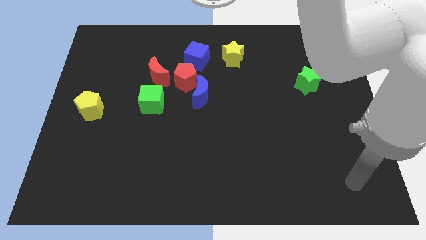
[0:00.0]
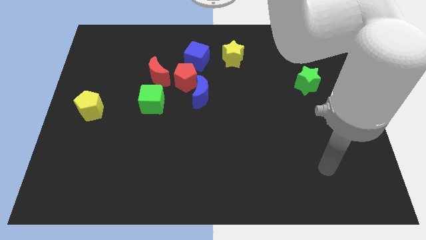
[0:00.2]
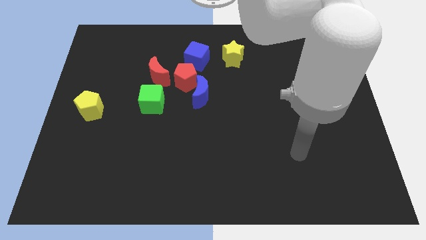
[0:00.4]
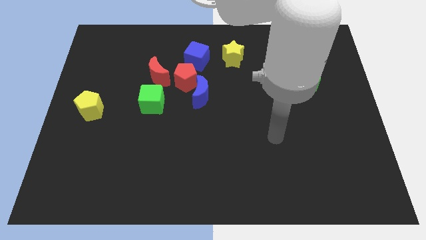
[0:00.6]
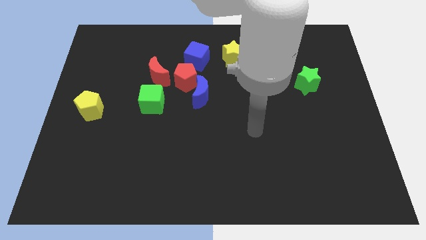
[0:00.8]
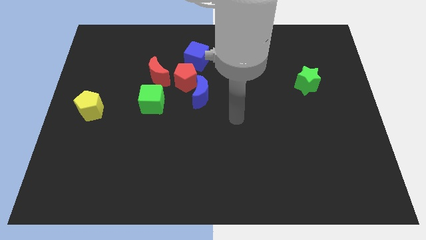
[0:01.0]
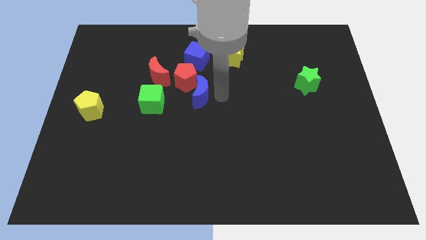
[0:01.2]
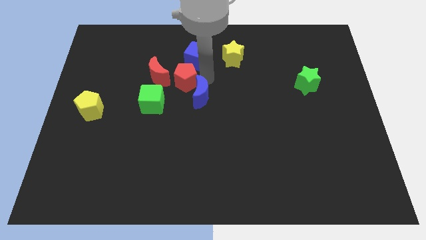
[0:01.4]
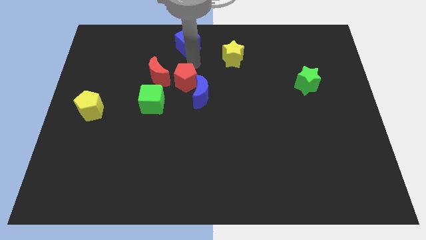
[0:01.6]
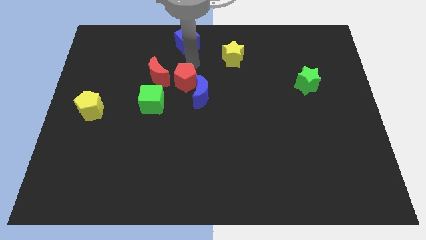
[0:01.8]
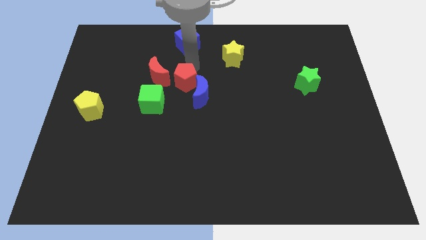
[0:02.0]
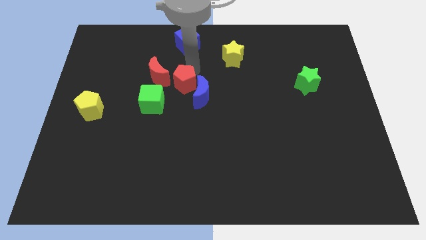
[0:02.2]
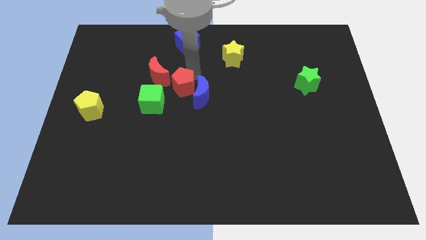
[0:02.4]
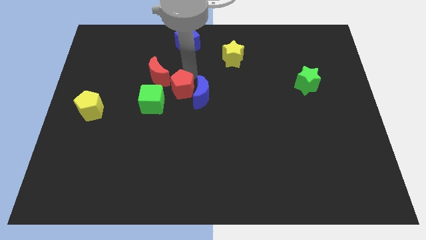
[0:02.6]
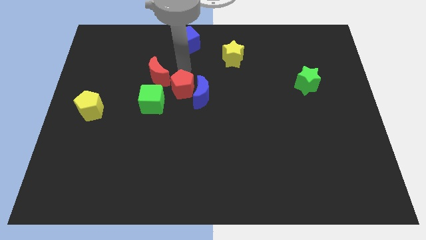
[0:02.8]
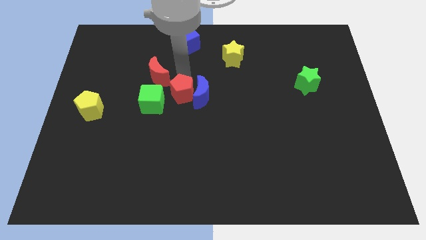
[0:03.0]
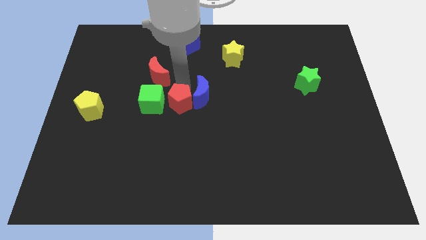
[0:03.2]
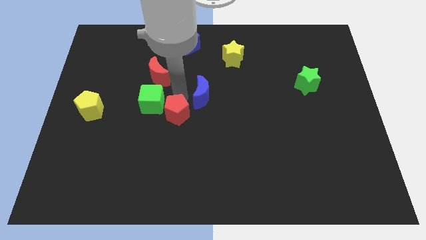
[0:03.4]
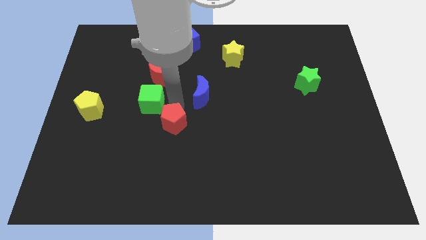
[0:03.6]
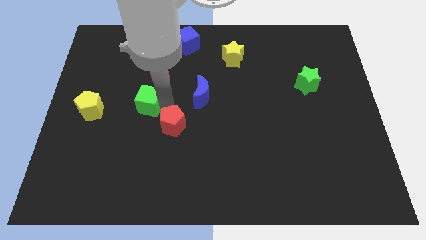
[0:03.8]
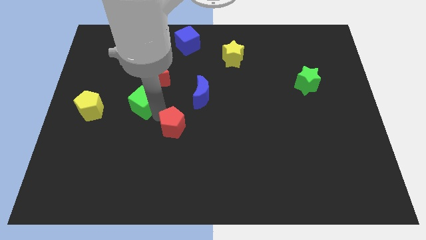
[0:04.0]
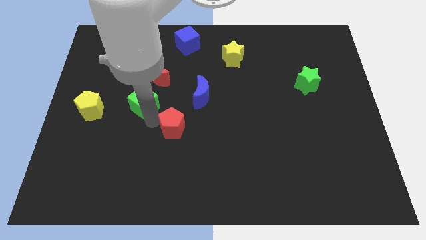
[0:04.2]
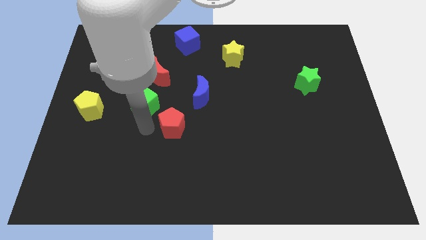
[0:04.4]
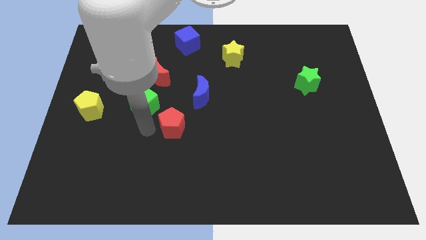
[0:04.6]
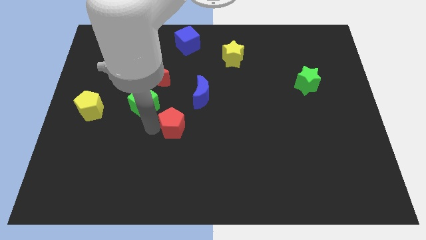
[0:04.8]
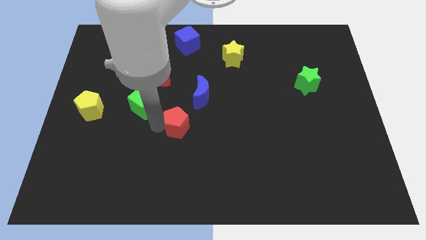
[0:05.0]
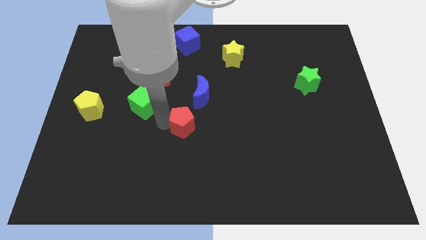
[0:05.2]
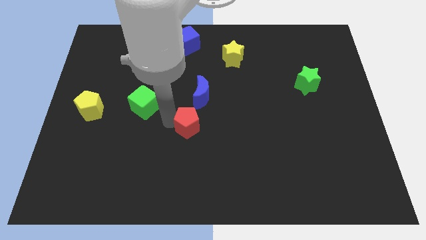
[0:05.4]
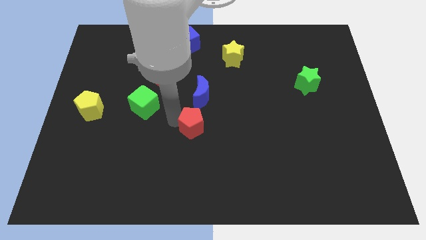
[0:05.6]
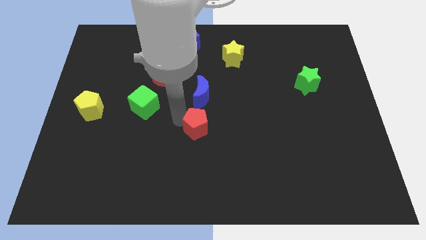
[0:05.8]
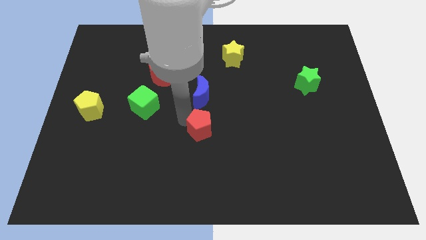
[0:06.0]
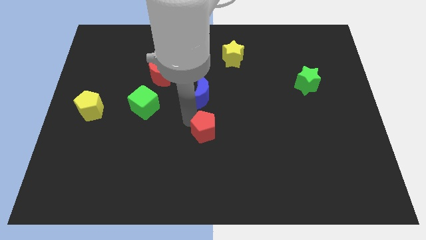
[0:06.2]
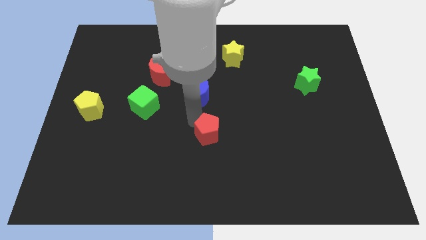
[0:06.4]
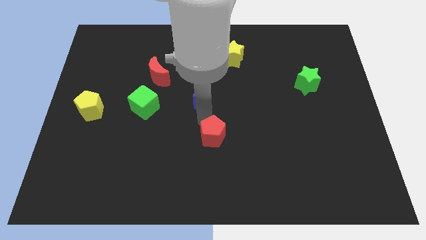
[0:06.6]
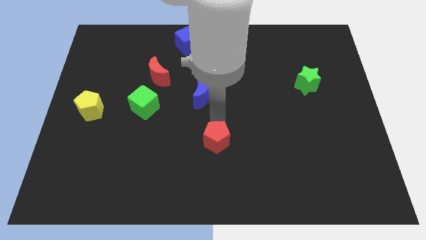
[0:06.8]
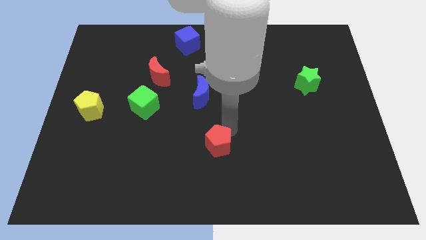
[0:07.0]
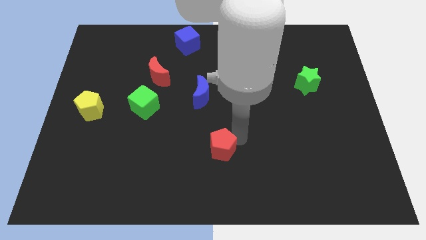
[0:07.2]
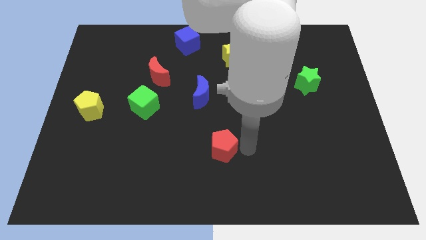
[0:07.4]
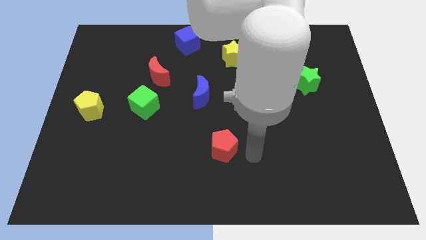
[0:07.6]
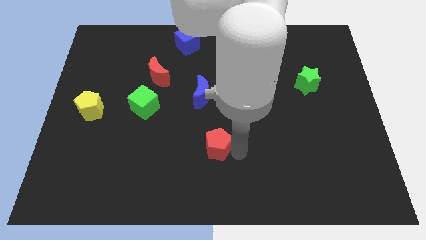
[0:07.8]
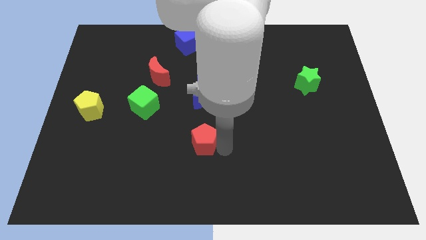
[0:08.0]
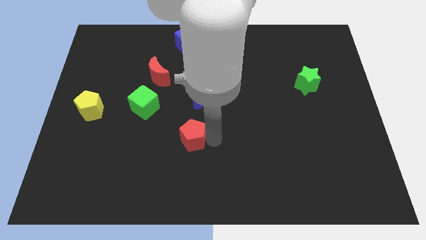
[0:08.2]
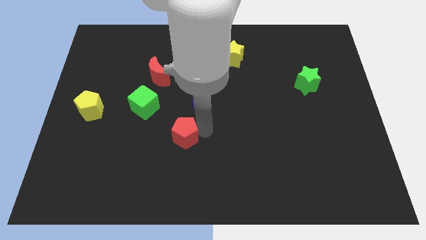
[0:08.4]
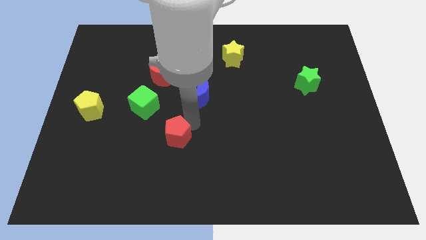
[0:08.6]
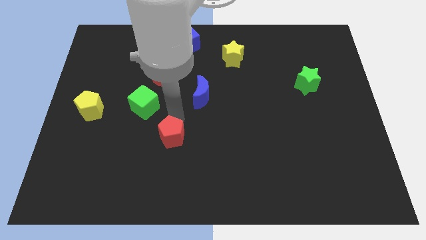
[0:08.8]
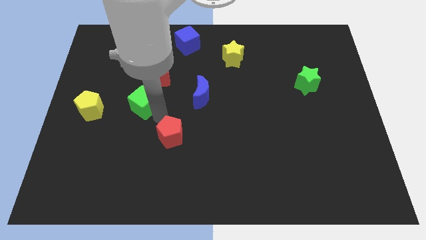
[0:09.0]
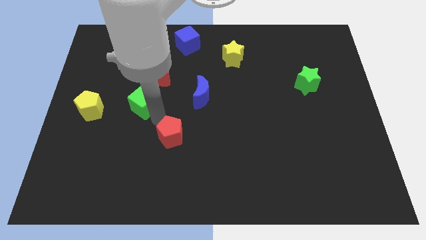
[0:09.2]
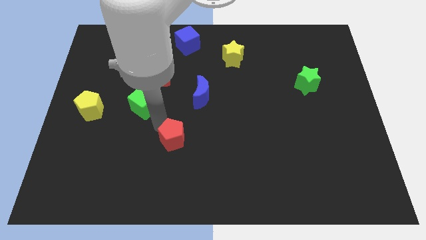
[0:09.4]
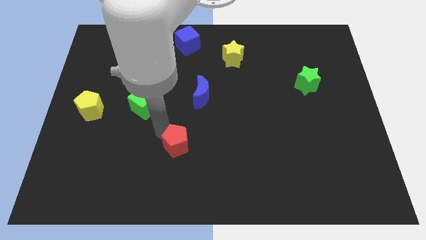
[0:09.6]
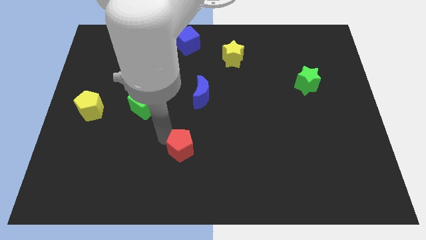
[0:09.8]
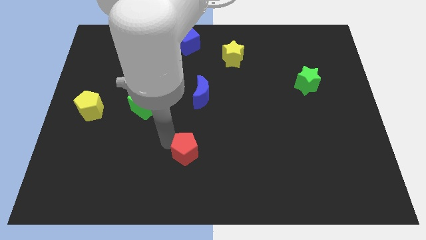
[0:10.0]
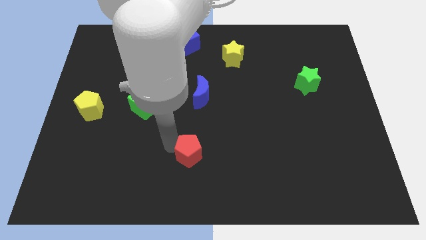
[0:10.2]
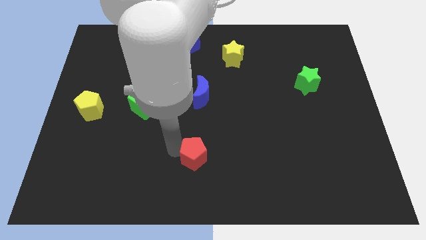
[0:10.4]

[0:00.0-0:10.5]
put the red pentagon to the bottom

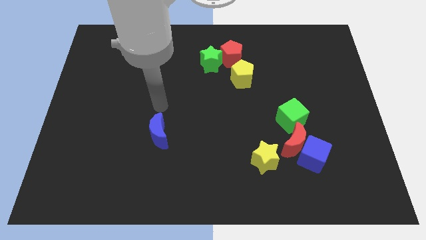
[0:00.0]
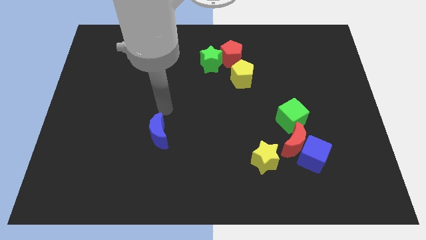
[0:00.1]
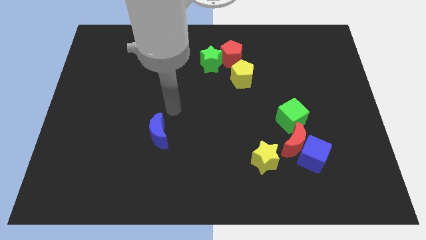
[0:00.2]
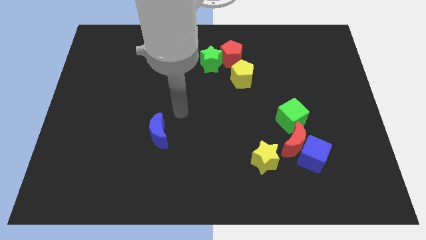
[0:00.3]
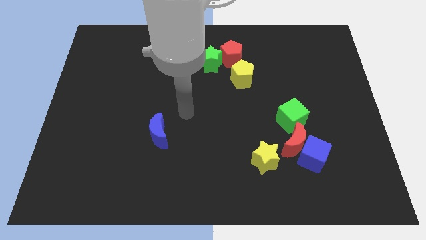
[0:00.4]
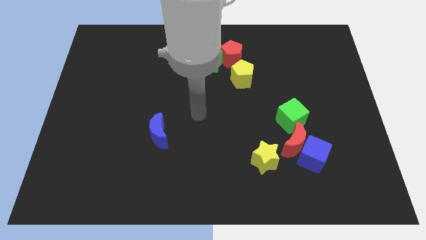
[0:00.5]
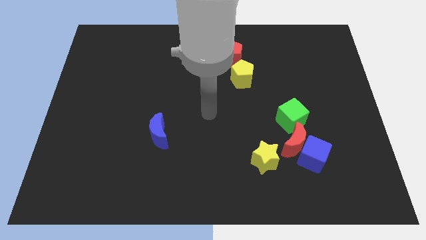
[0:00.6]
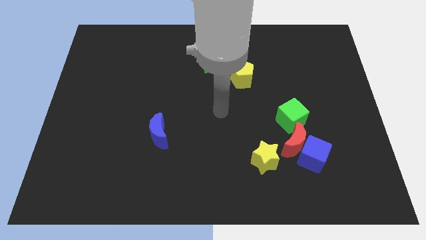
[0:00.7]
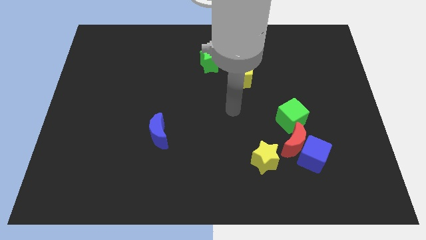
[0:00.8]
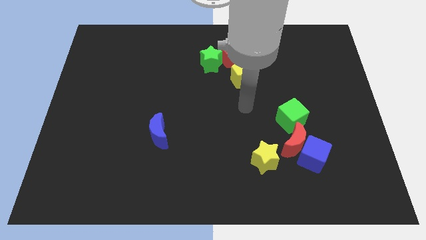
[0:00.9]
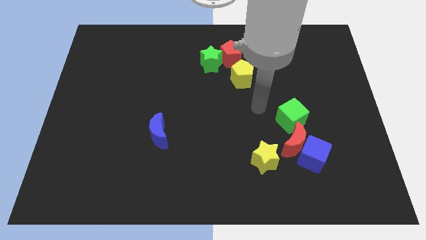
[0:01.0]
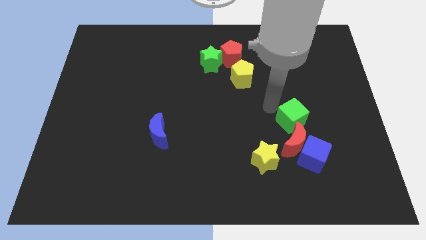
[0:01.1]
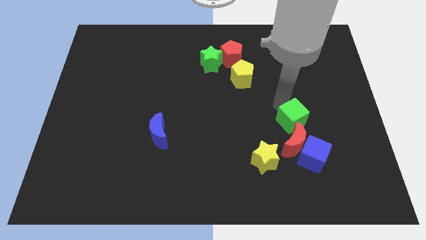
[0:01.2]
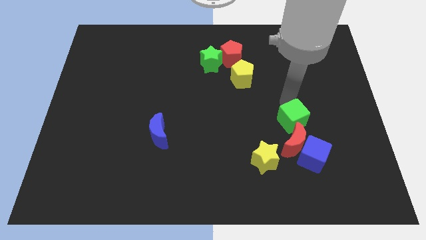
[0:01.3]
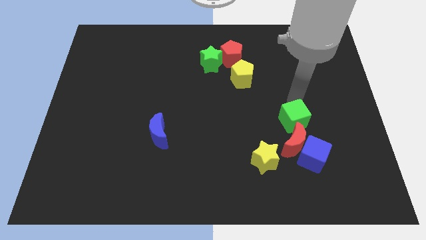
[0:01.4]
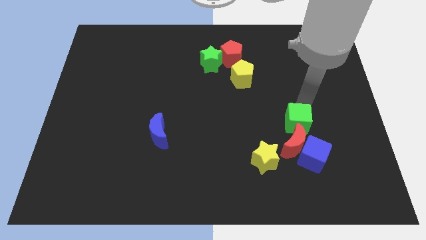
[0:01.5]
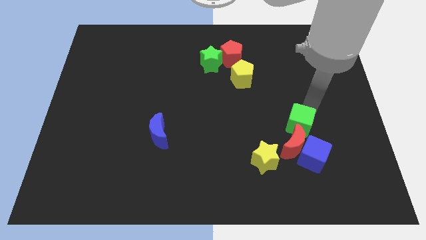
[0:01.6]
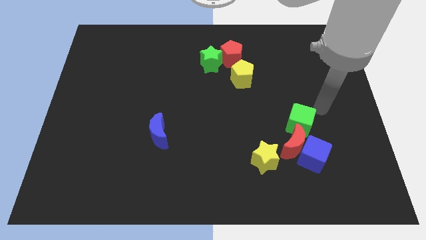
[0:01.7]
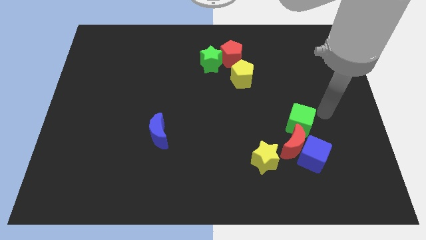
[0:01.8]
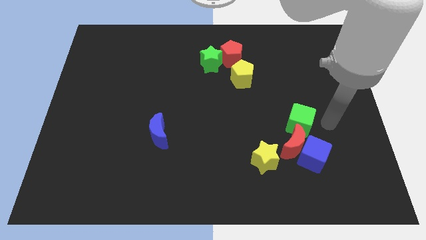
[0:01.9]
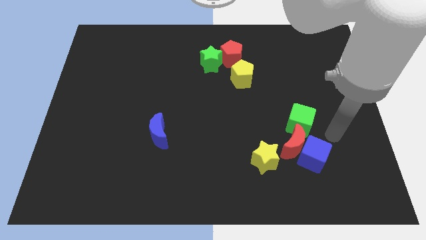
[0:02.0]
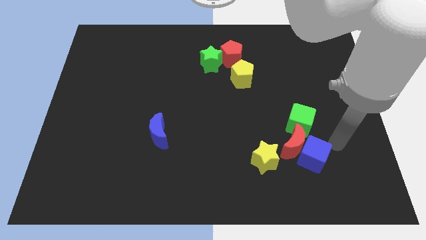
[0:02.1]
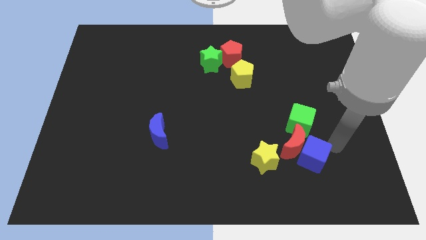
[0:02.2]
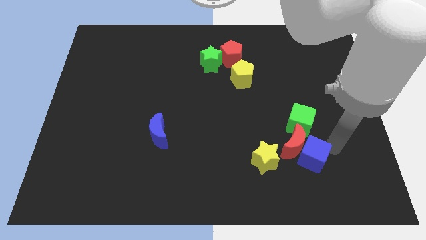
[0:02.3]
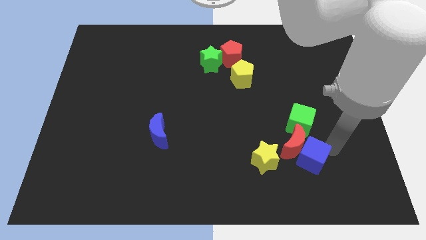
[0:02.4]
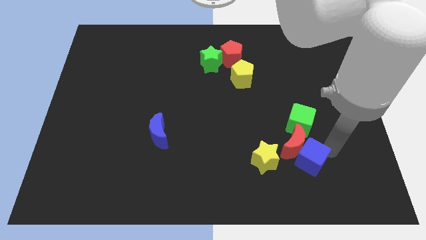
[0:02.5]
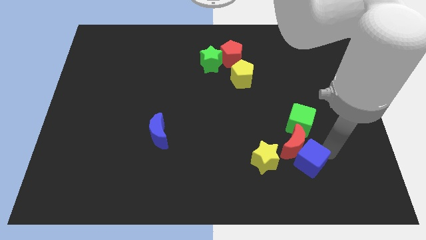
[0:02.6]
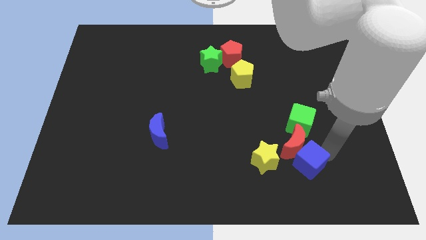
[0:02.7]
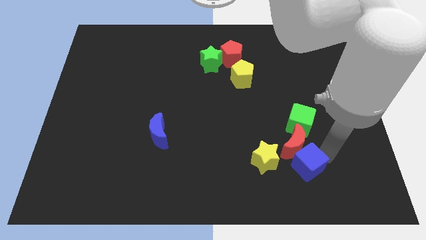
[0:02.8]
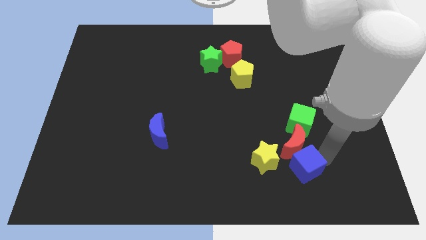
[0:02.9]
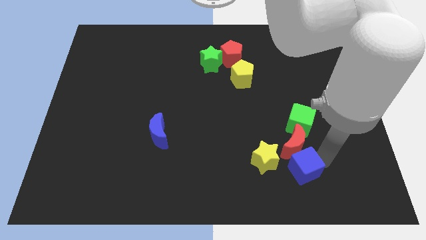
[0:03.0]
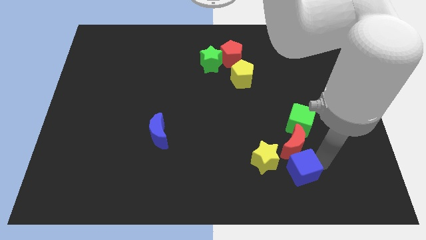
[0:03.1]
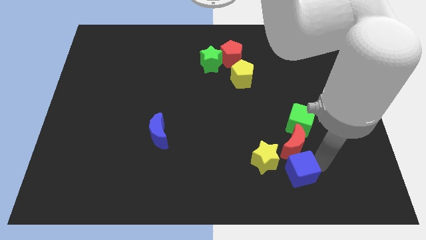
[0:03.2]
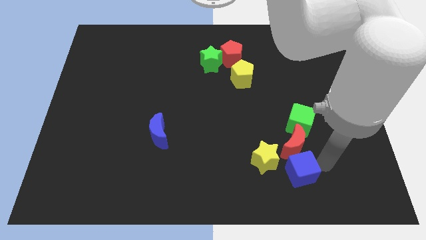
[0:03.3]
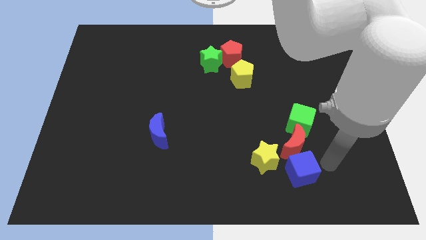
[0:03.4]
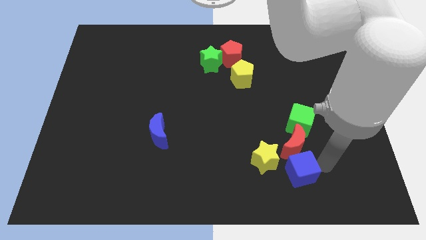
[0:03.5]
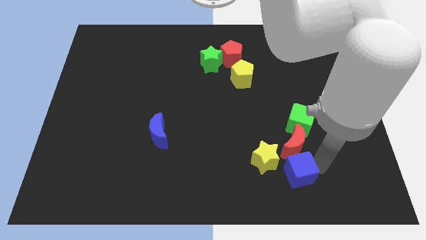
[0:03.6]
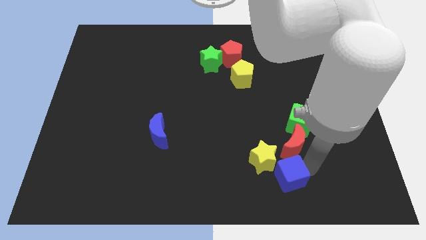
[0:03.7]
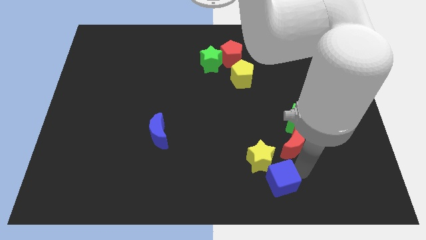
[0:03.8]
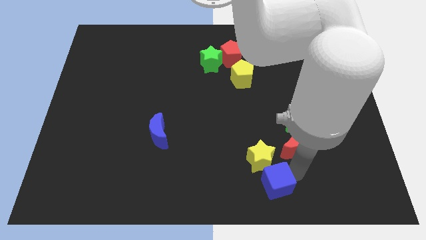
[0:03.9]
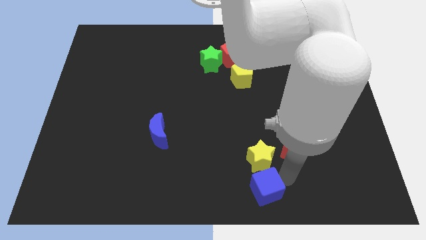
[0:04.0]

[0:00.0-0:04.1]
push the blue cube to the bottom side
